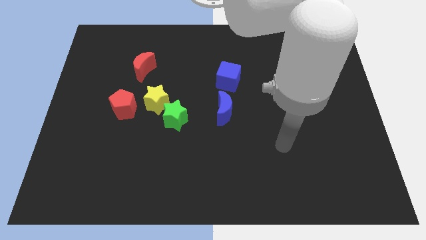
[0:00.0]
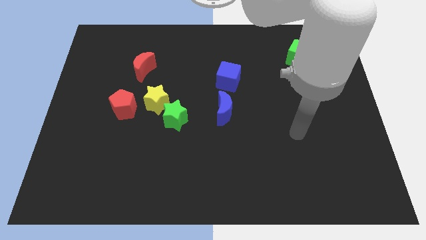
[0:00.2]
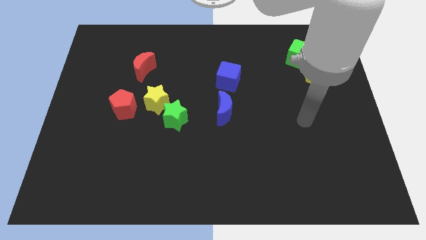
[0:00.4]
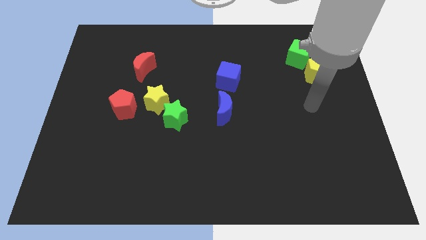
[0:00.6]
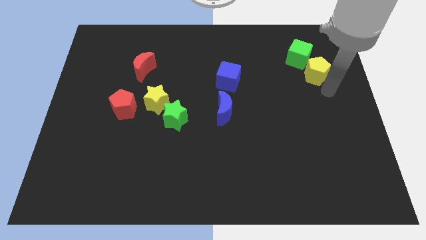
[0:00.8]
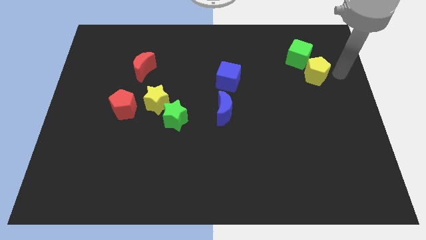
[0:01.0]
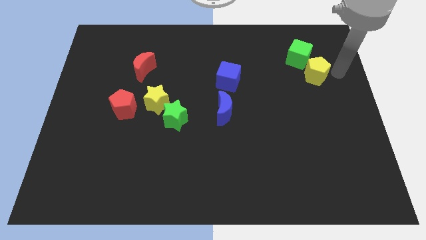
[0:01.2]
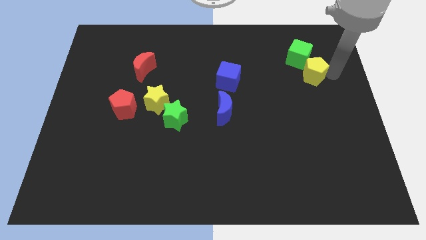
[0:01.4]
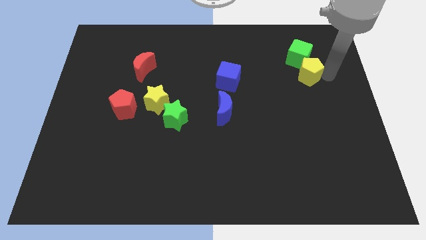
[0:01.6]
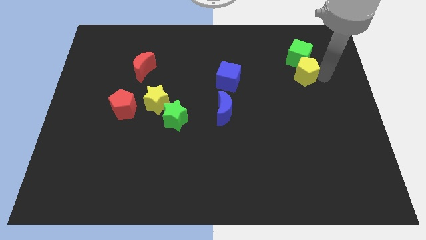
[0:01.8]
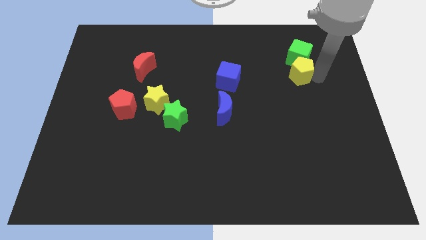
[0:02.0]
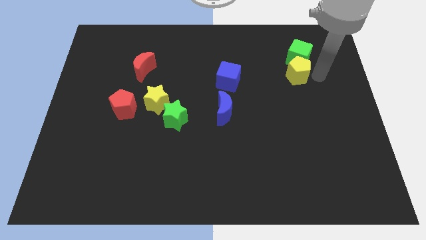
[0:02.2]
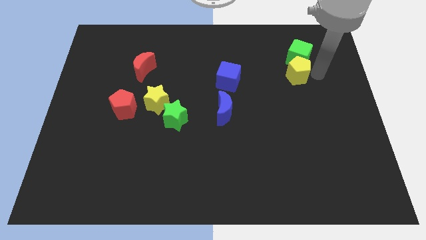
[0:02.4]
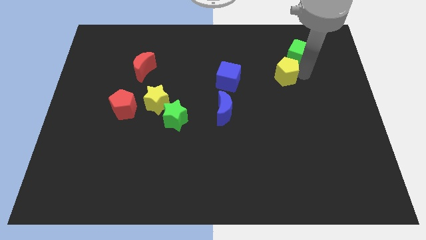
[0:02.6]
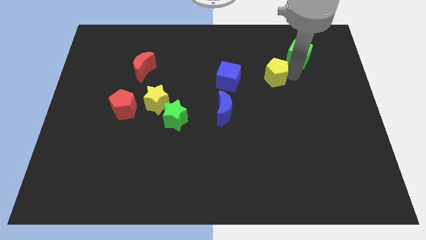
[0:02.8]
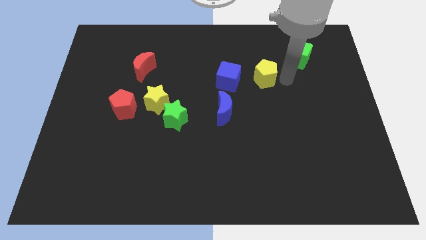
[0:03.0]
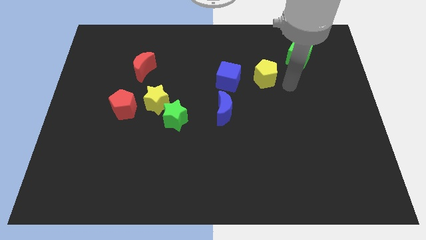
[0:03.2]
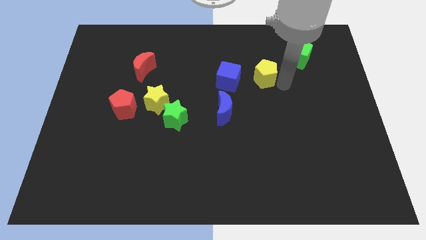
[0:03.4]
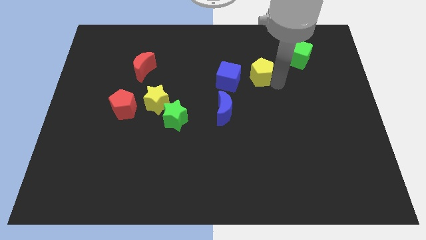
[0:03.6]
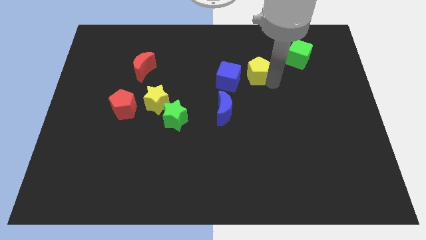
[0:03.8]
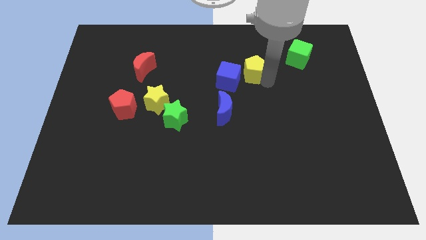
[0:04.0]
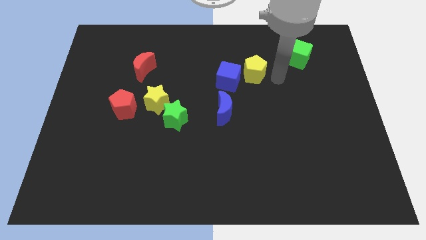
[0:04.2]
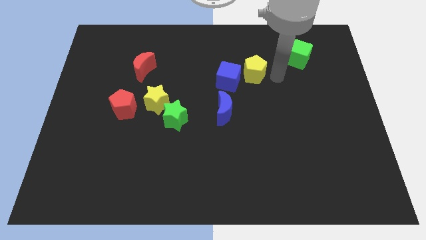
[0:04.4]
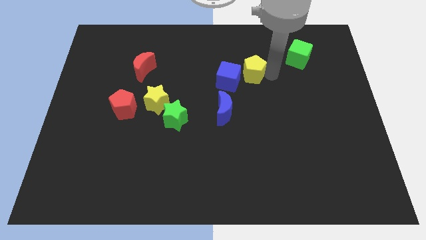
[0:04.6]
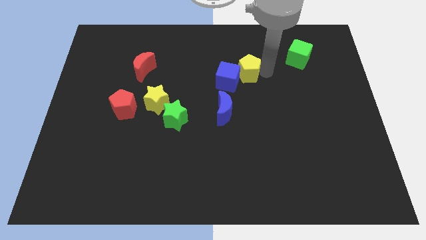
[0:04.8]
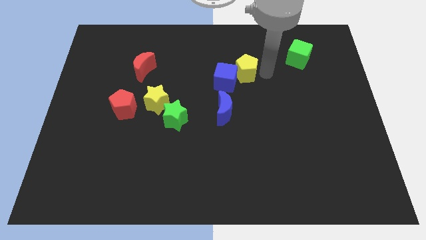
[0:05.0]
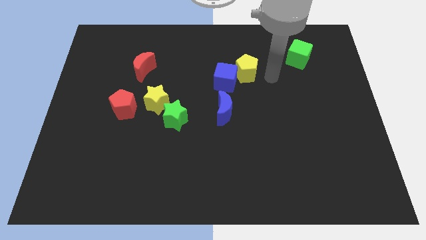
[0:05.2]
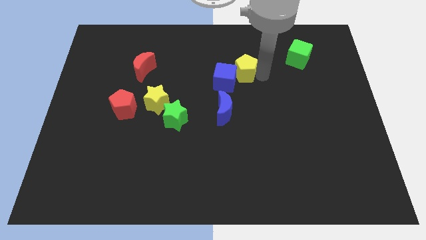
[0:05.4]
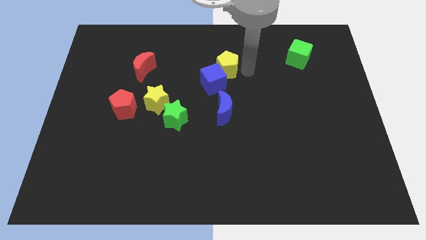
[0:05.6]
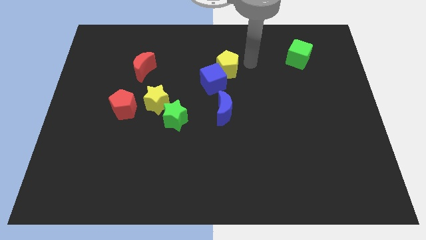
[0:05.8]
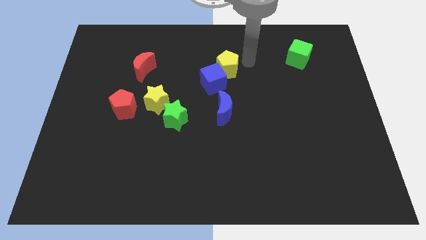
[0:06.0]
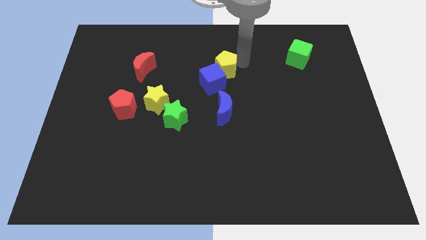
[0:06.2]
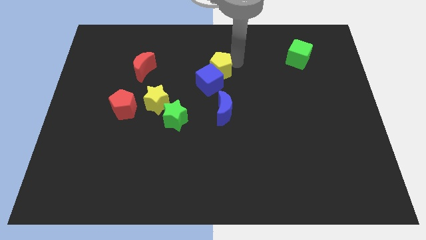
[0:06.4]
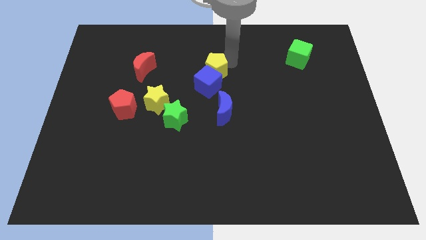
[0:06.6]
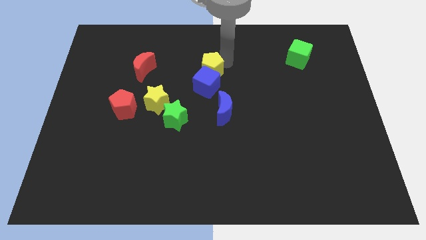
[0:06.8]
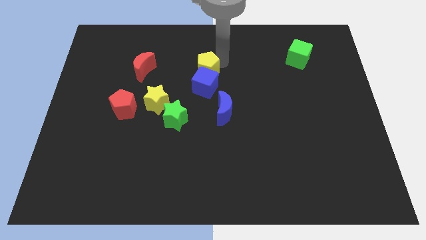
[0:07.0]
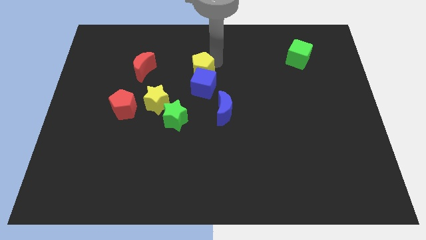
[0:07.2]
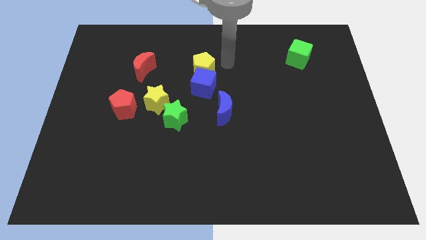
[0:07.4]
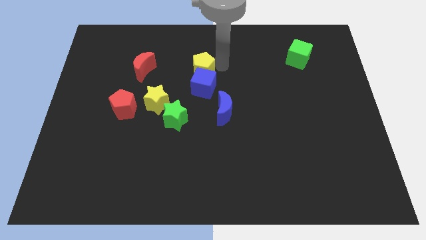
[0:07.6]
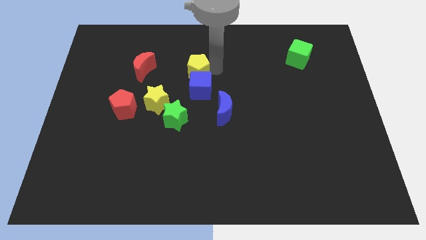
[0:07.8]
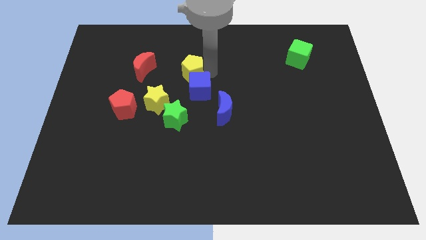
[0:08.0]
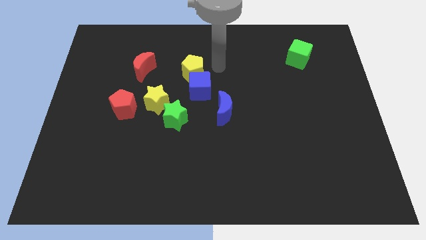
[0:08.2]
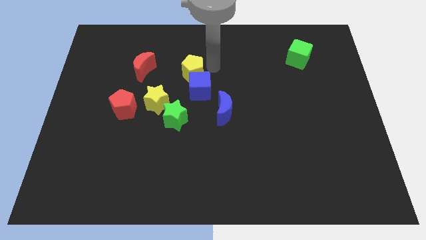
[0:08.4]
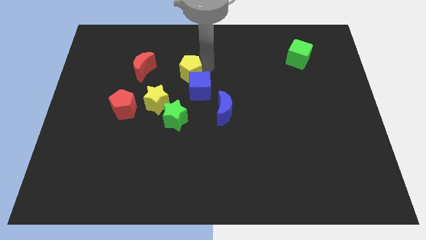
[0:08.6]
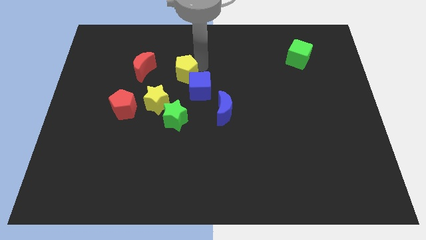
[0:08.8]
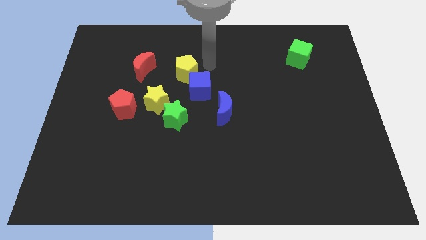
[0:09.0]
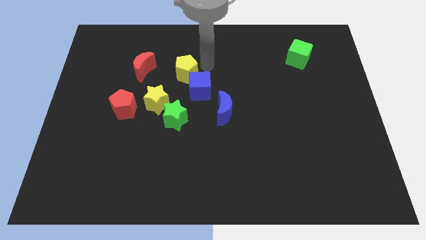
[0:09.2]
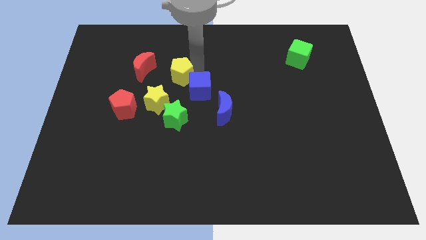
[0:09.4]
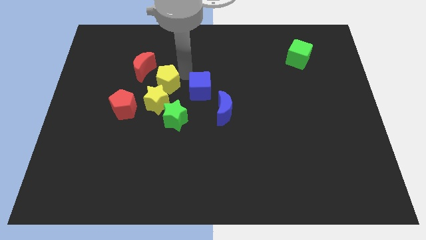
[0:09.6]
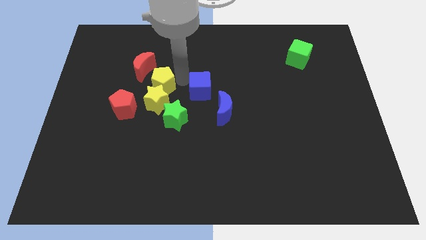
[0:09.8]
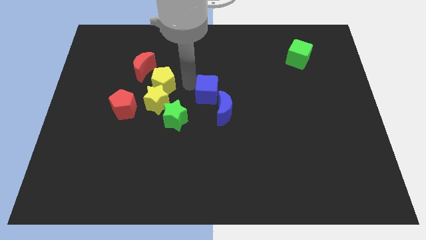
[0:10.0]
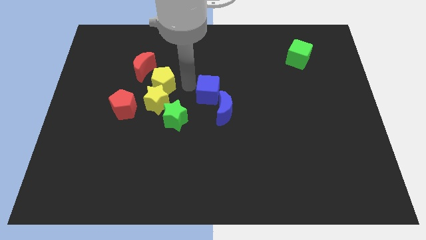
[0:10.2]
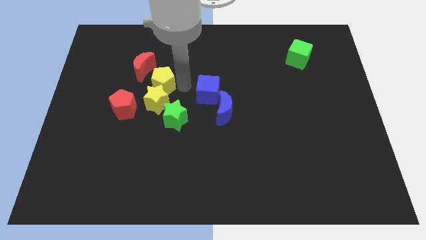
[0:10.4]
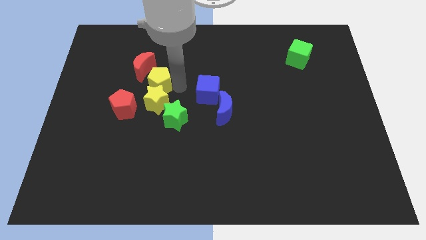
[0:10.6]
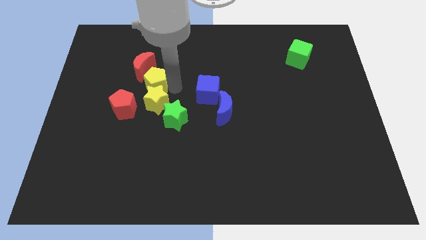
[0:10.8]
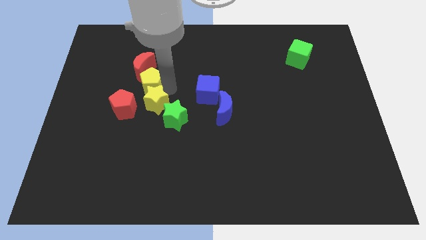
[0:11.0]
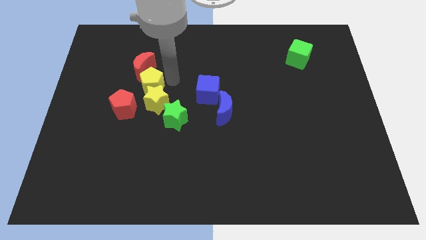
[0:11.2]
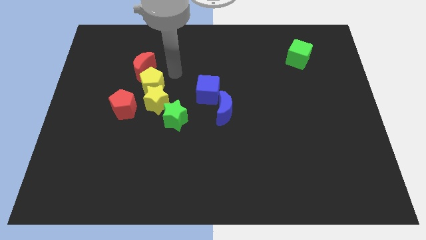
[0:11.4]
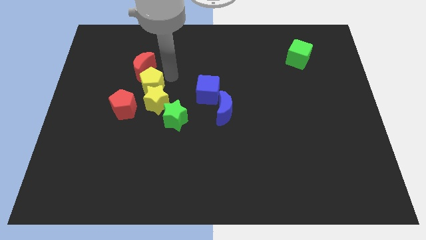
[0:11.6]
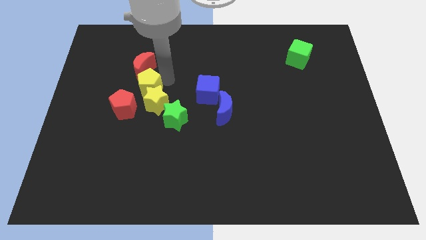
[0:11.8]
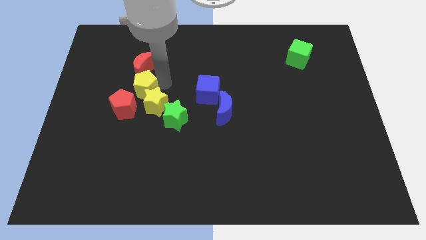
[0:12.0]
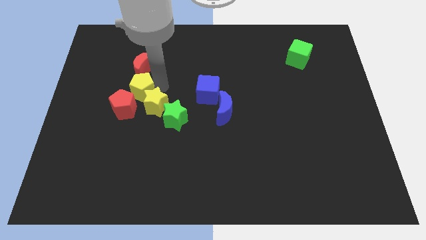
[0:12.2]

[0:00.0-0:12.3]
move the yellow pentagon towards the red pentagon

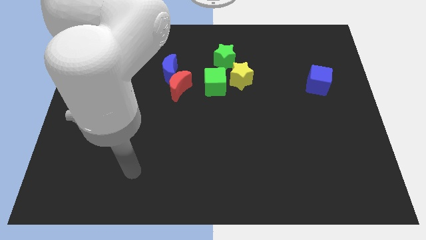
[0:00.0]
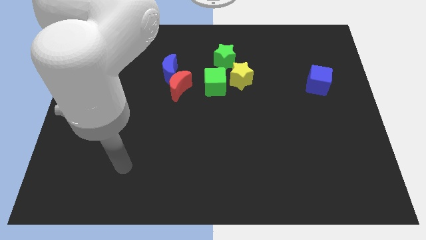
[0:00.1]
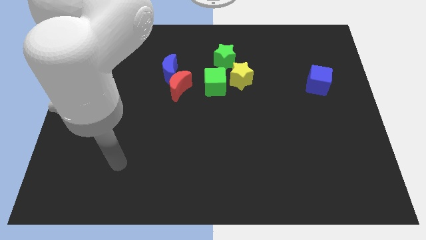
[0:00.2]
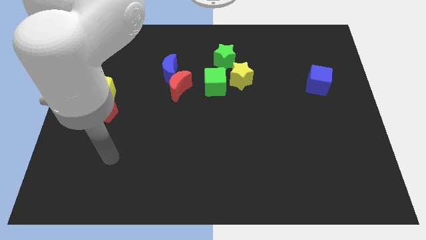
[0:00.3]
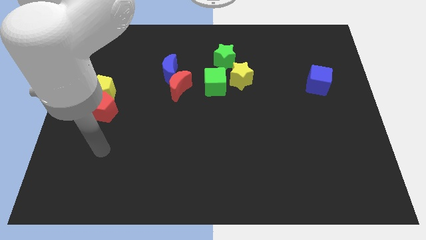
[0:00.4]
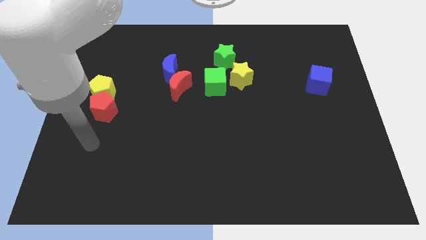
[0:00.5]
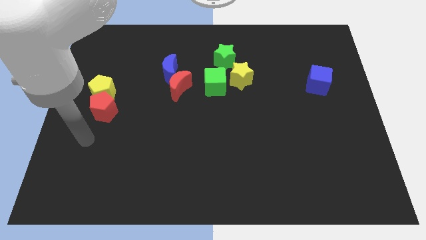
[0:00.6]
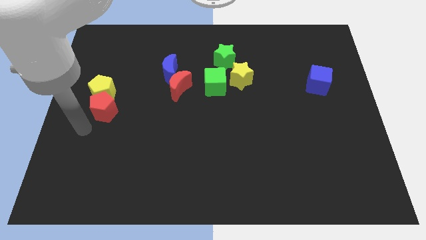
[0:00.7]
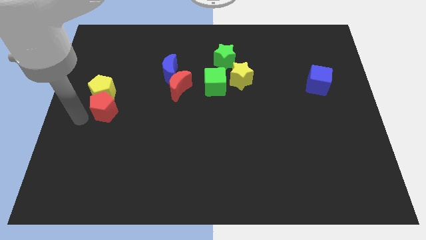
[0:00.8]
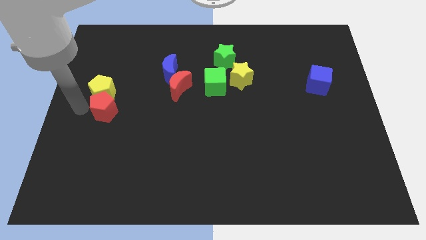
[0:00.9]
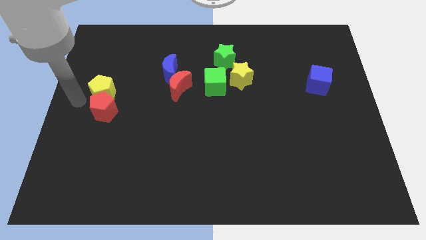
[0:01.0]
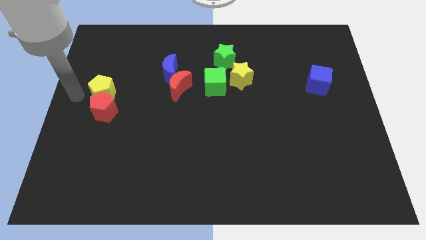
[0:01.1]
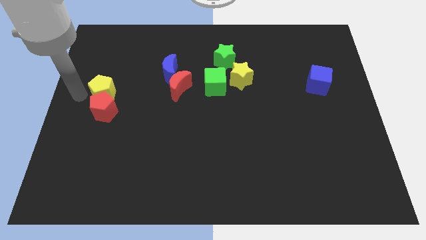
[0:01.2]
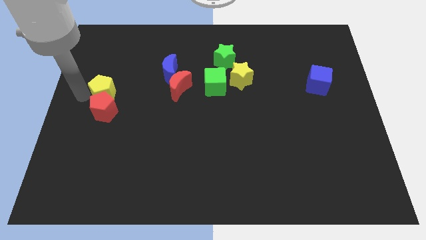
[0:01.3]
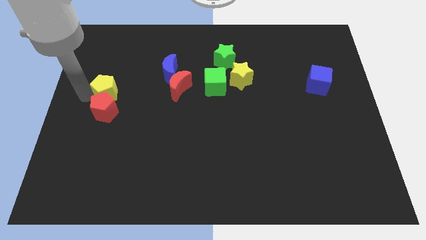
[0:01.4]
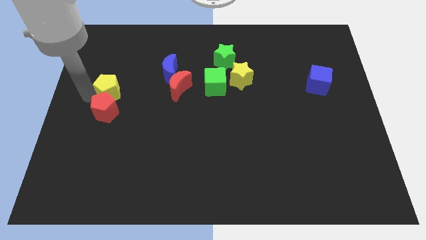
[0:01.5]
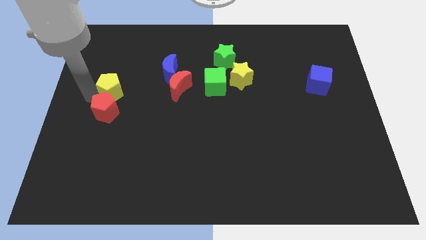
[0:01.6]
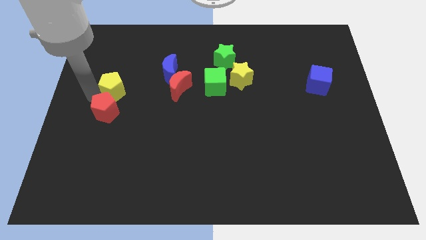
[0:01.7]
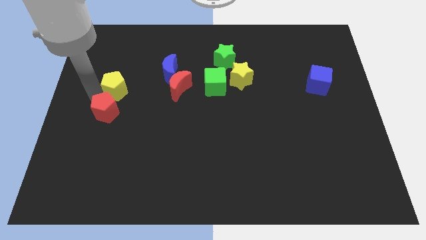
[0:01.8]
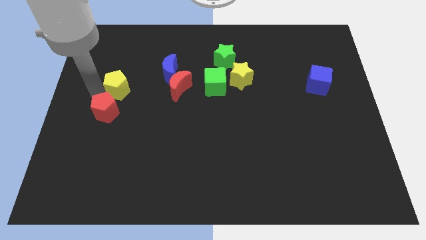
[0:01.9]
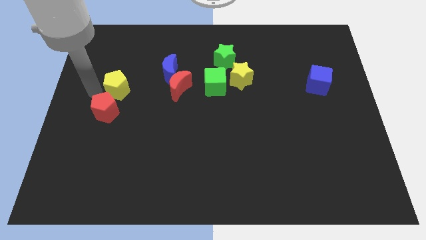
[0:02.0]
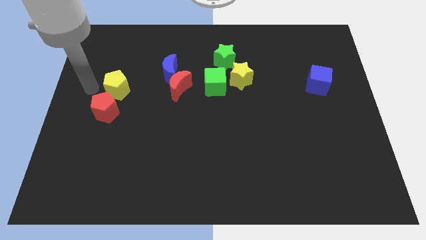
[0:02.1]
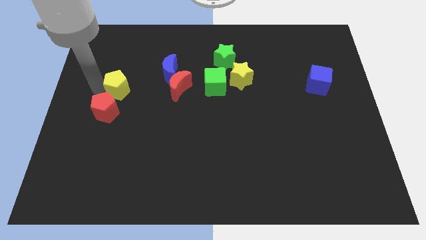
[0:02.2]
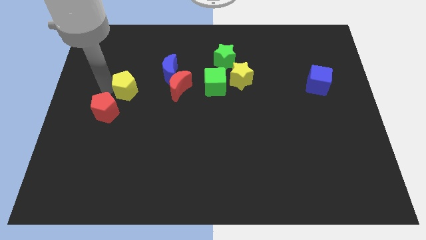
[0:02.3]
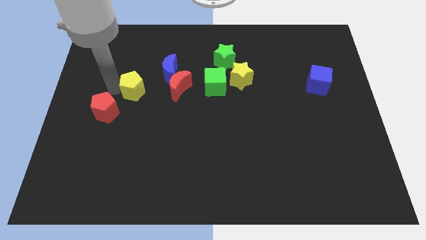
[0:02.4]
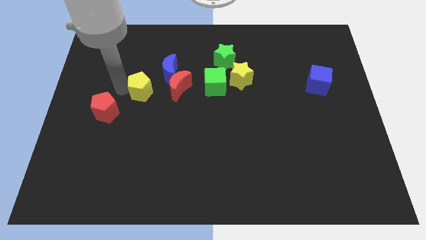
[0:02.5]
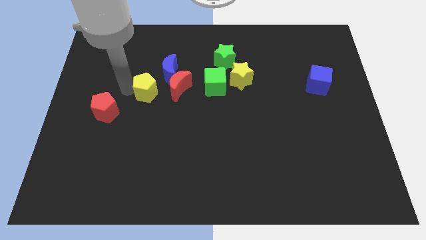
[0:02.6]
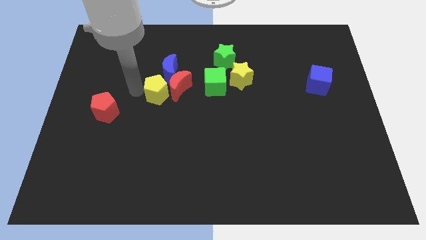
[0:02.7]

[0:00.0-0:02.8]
push the yellow pentagon towards the red moon
